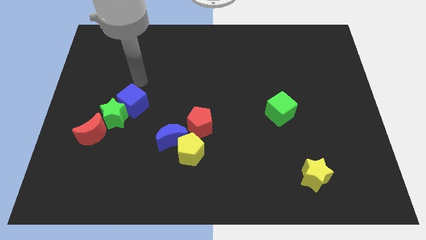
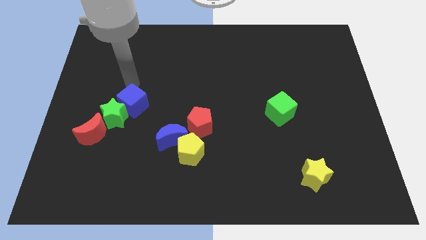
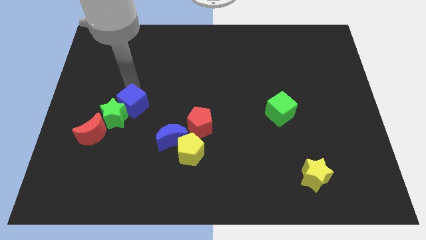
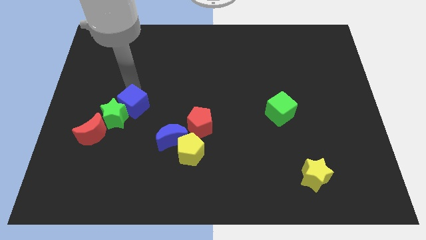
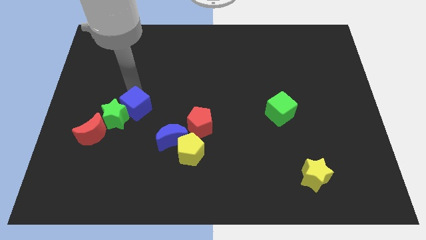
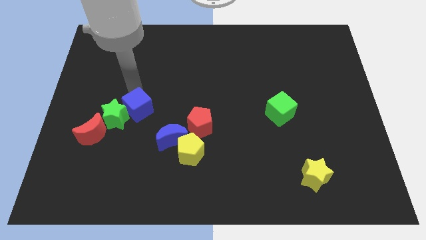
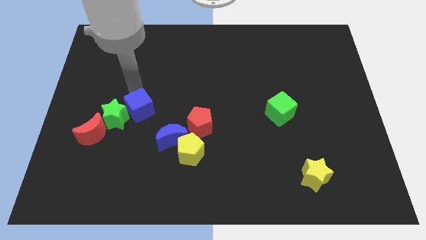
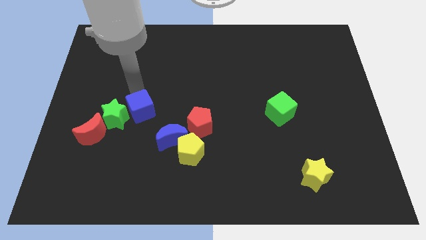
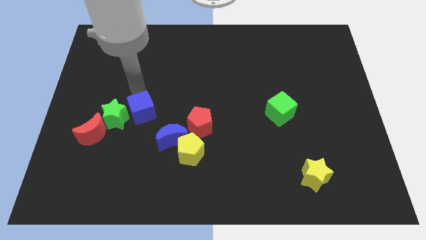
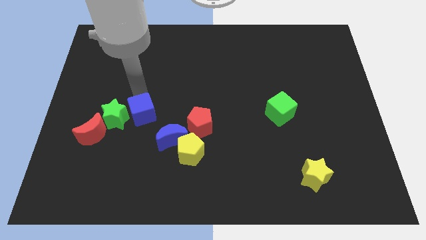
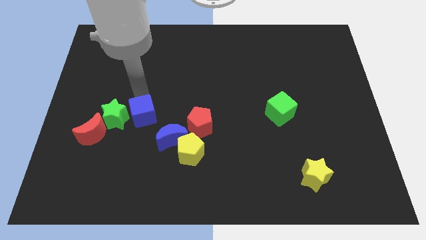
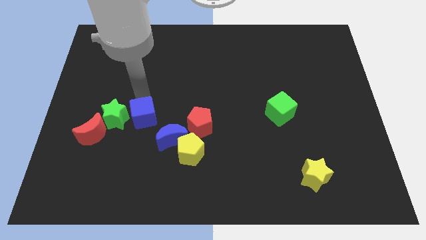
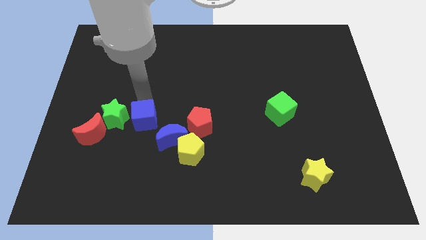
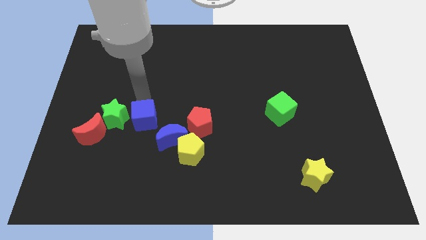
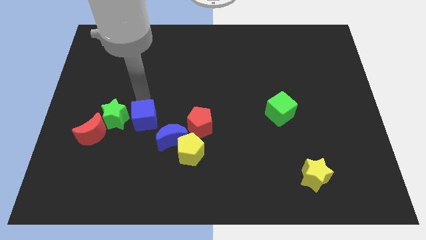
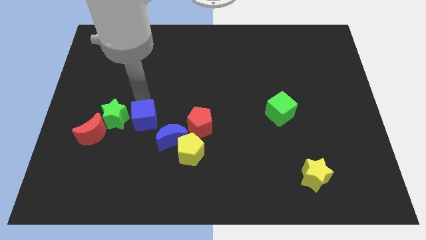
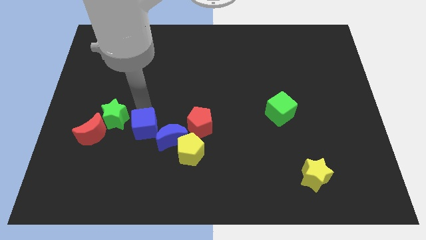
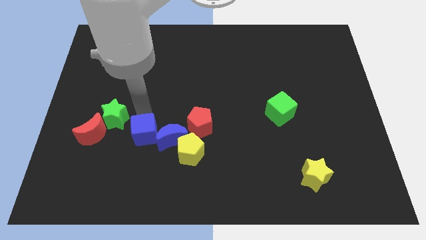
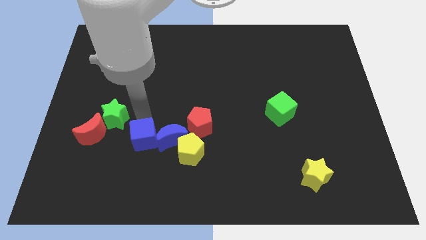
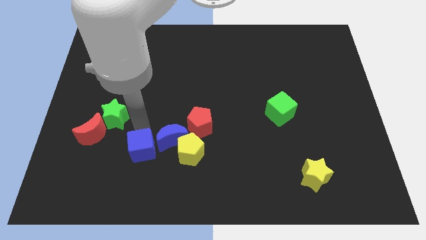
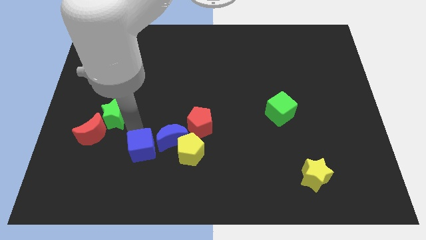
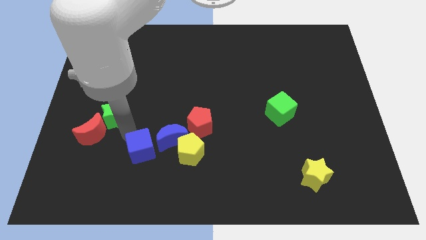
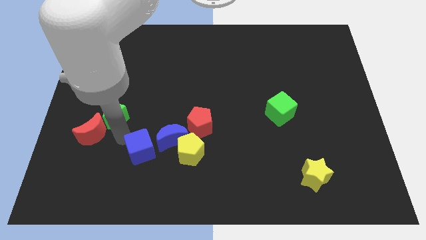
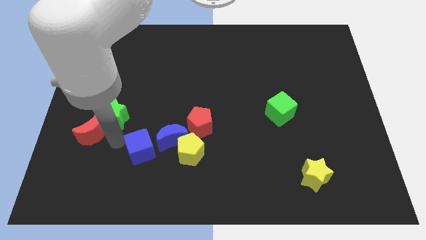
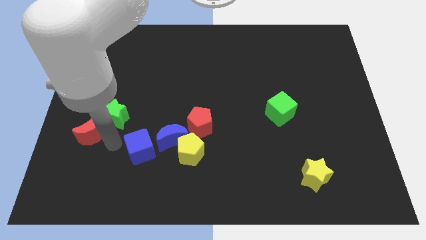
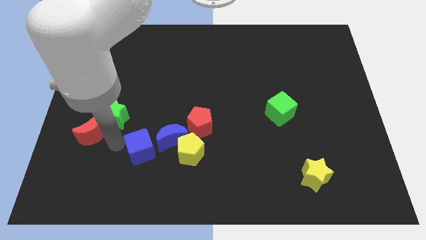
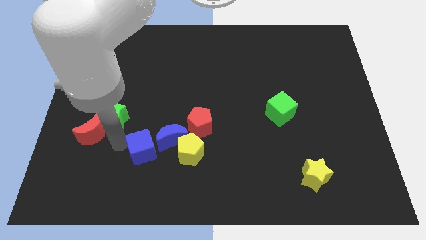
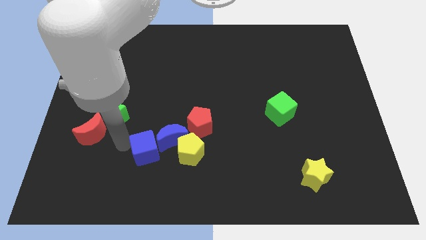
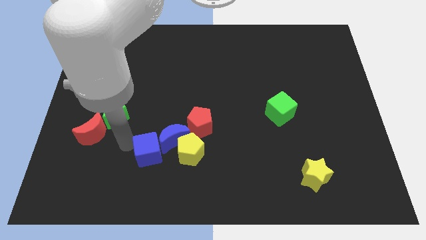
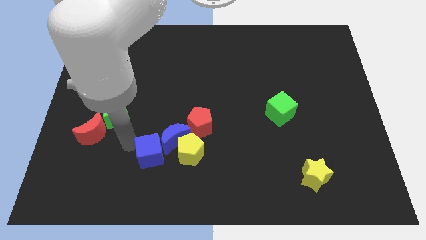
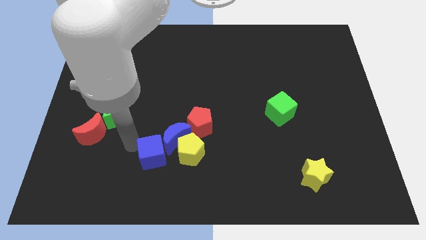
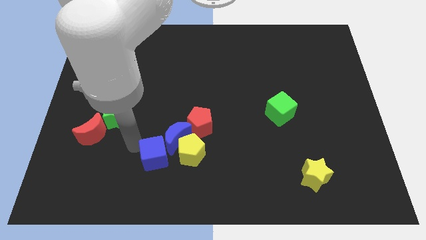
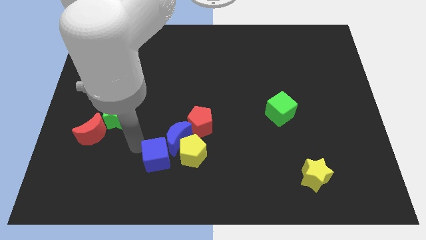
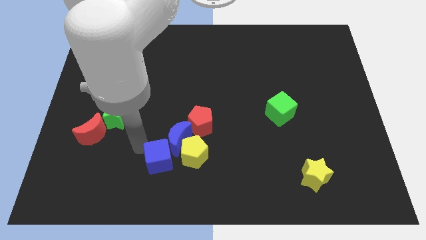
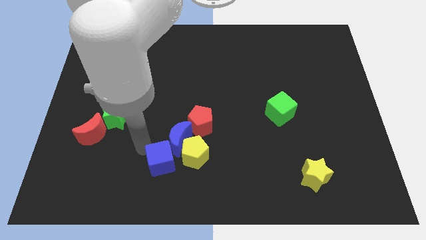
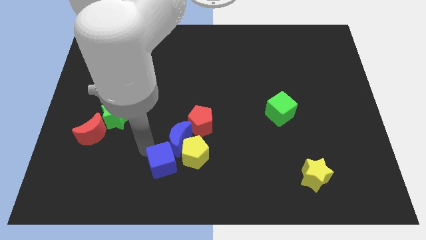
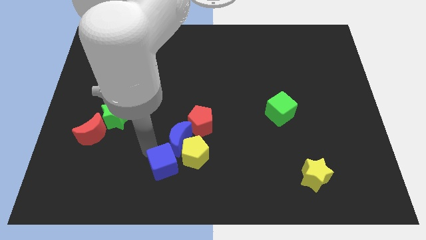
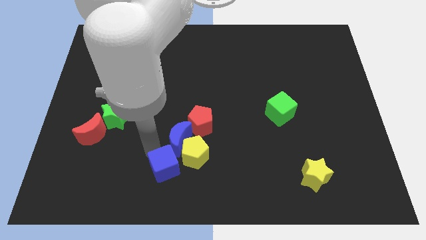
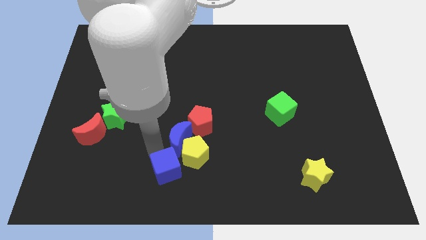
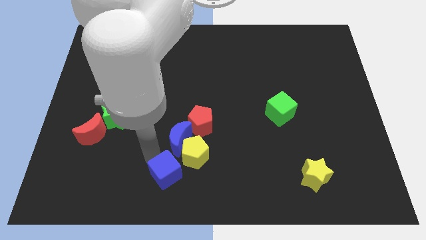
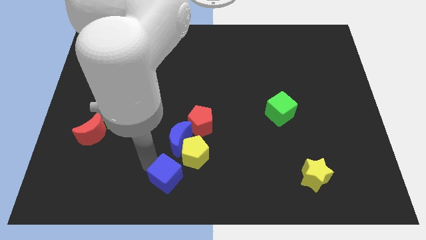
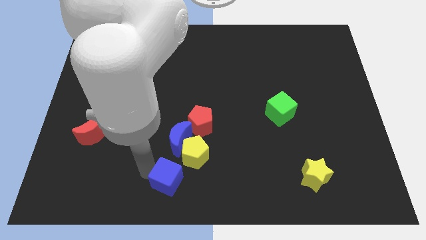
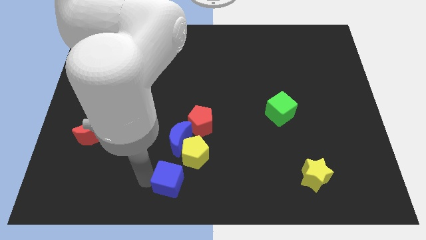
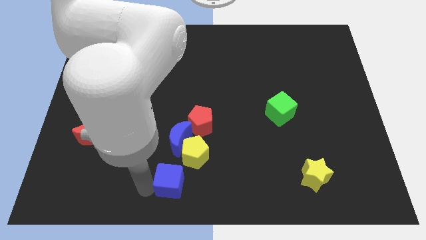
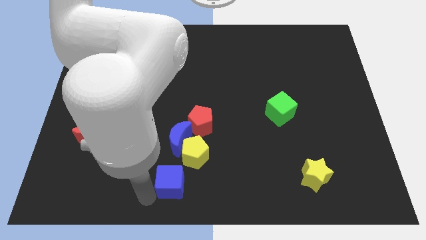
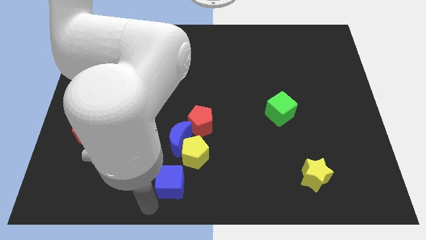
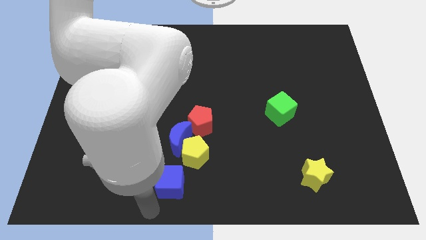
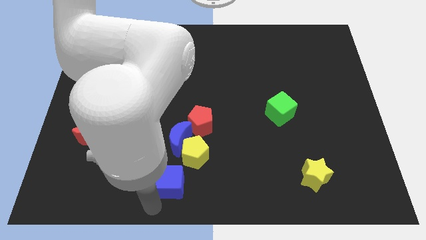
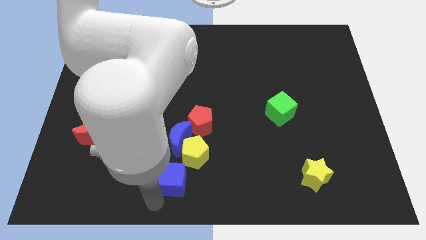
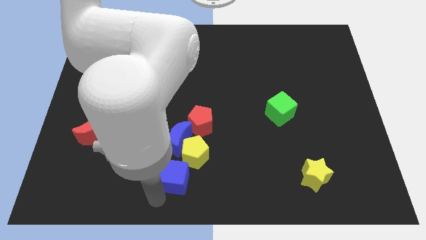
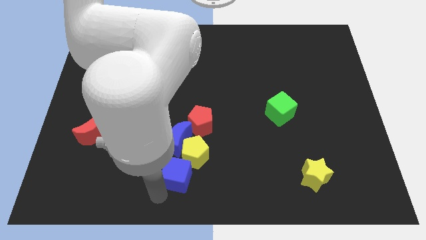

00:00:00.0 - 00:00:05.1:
slide the blue cube close to the yellow pentagon

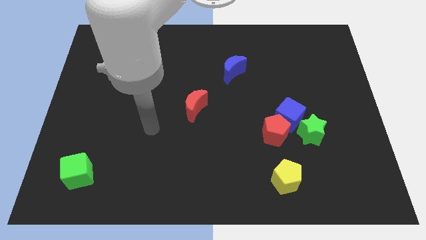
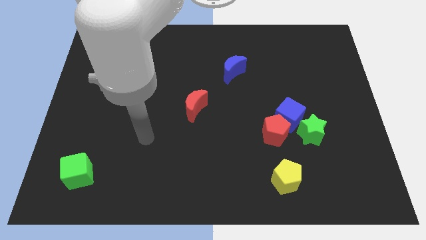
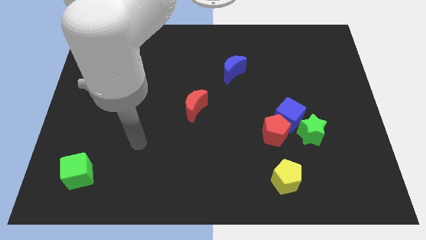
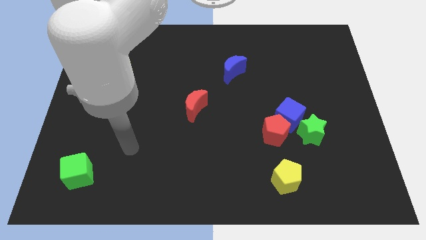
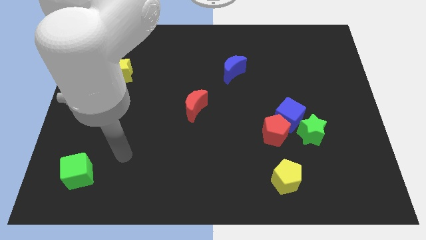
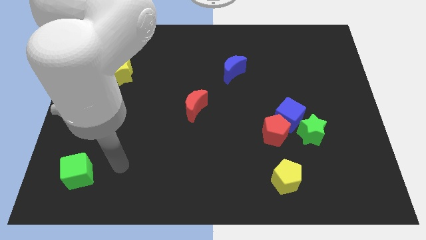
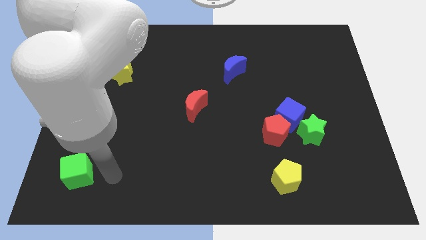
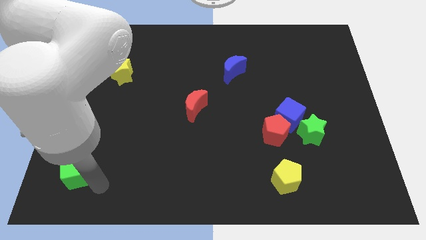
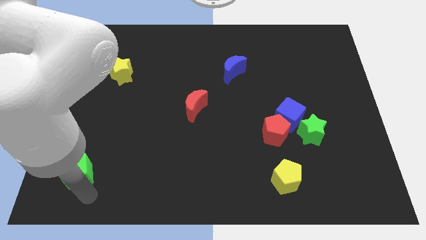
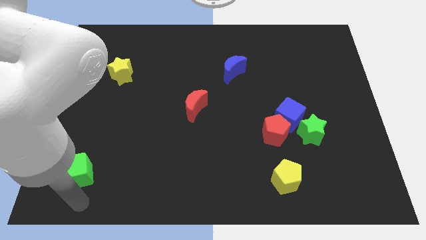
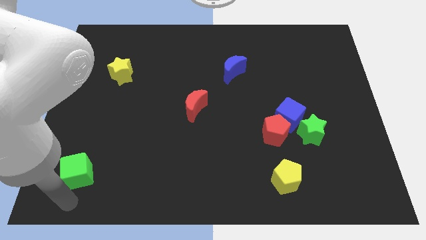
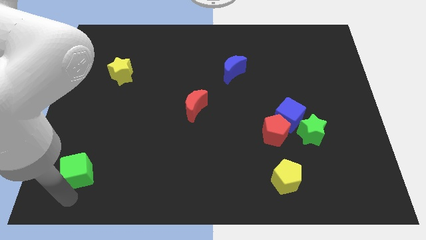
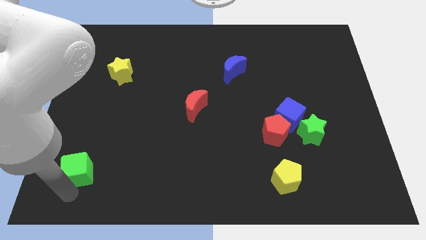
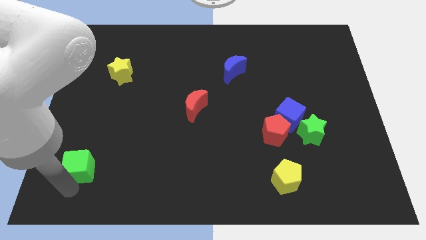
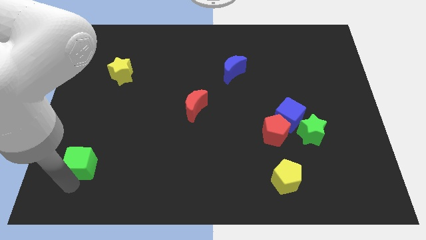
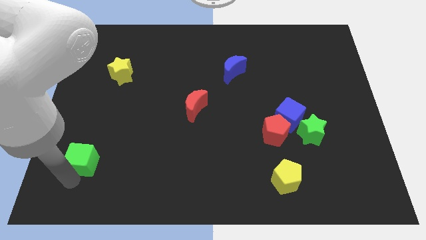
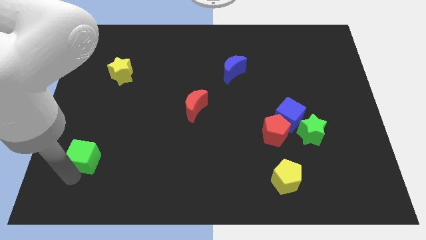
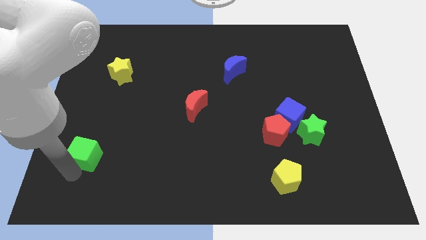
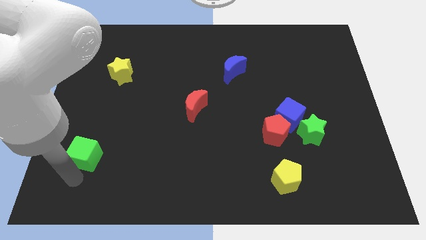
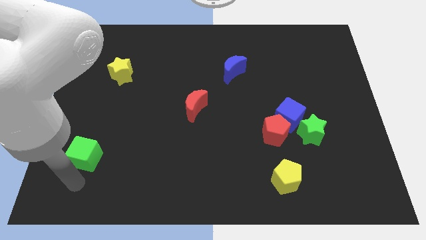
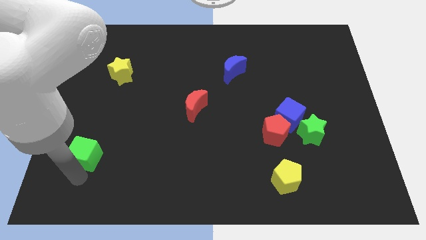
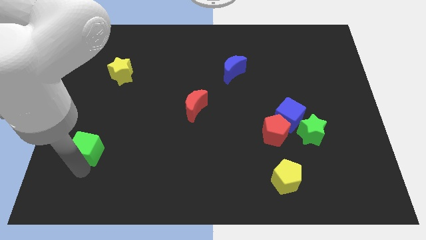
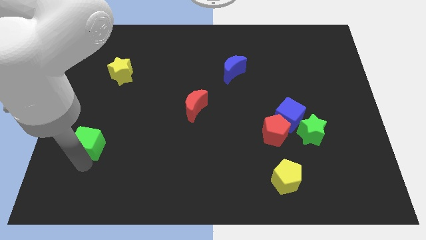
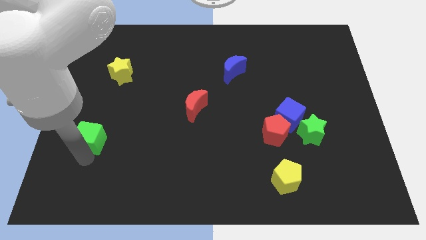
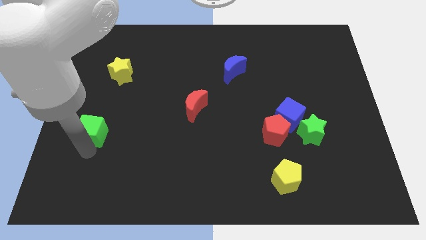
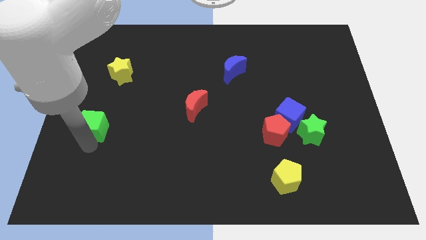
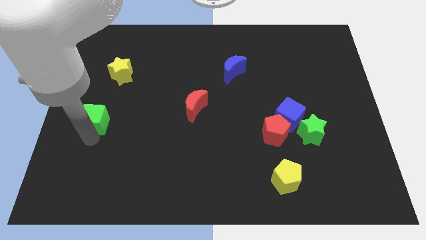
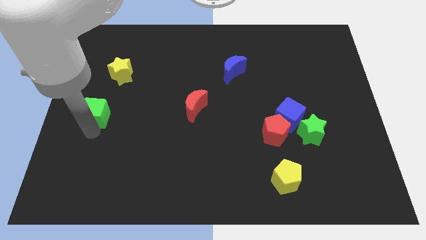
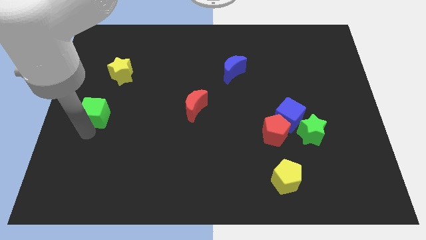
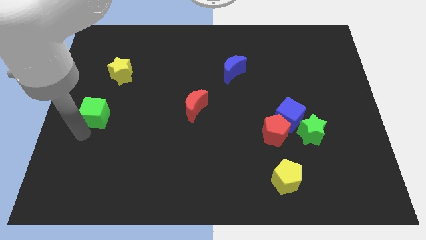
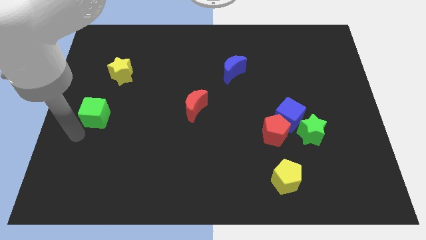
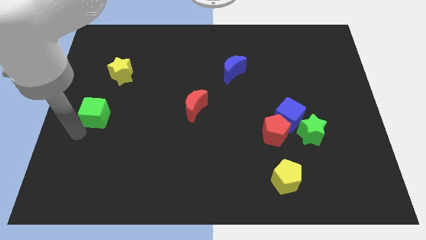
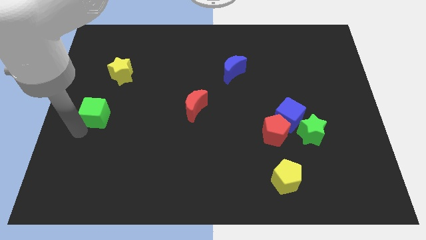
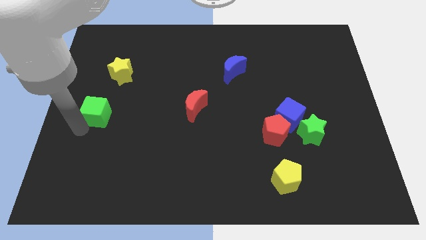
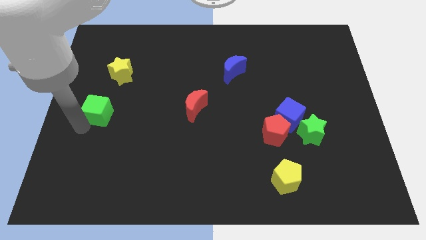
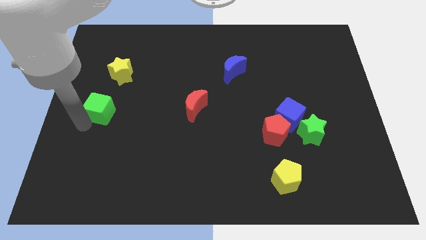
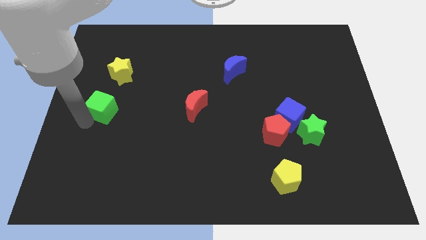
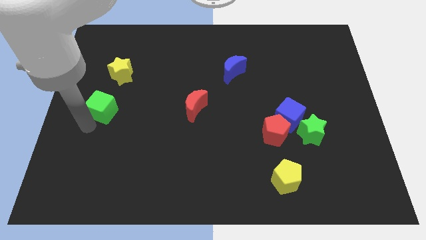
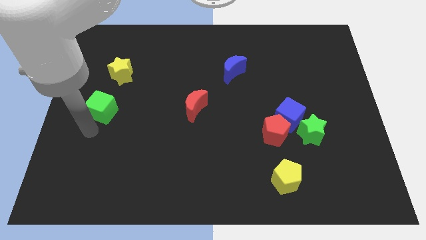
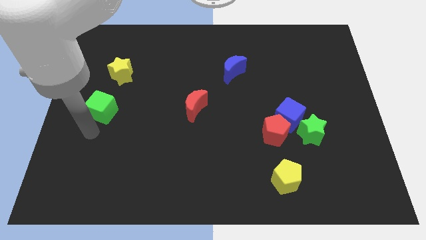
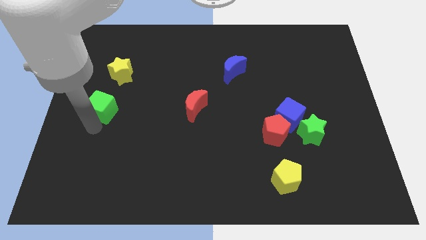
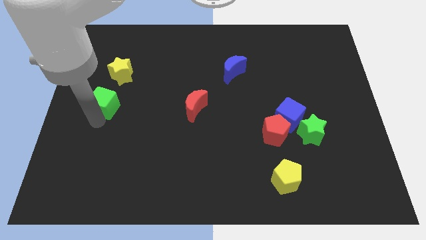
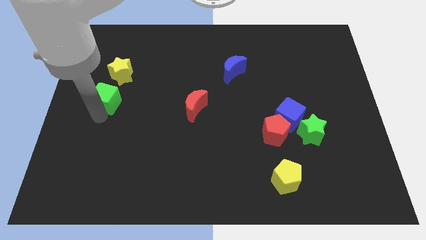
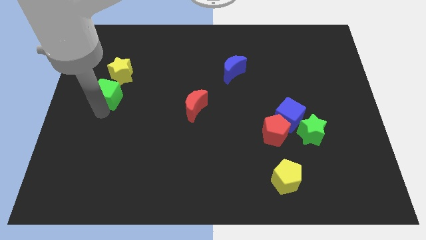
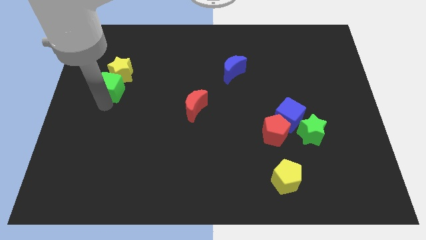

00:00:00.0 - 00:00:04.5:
move the green cube to the yellow star
